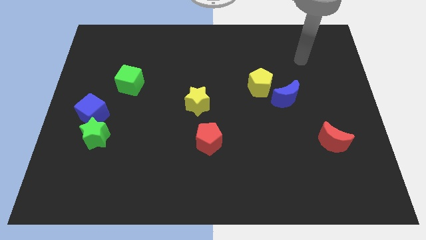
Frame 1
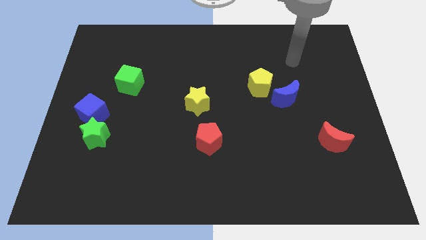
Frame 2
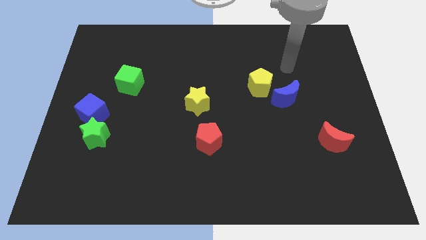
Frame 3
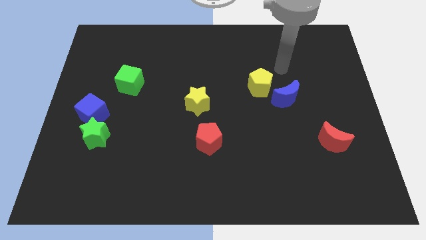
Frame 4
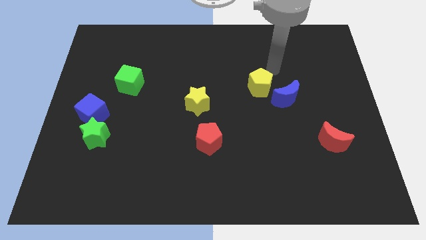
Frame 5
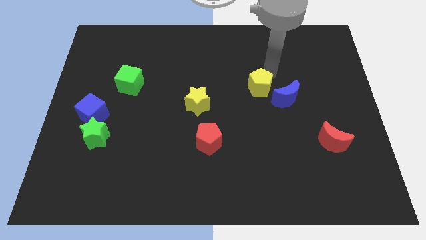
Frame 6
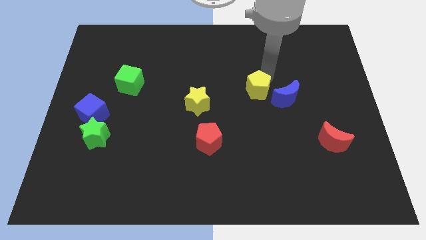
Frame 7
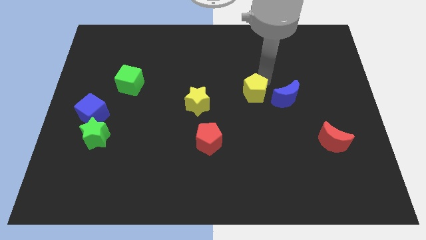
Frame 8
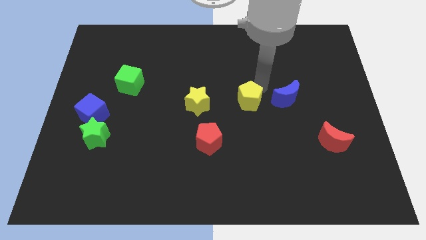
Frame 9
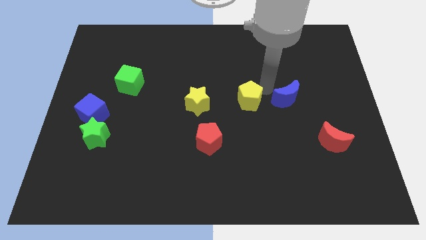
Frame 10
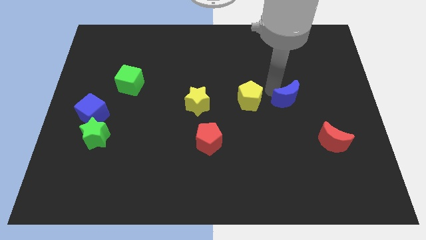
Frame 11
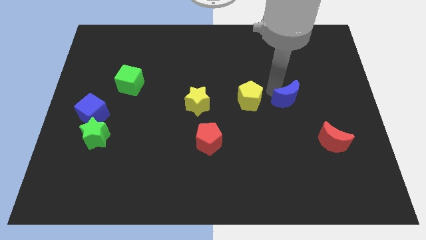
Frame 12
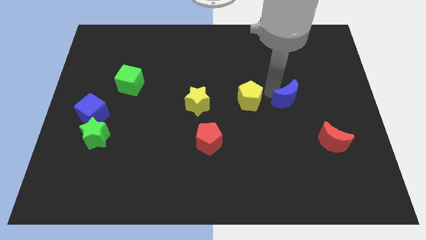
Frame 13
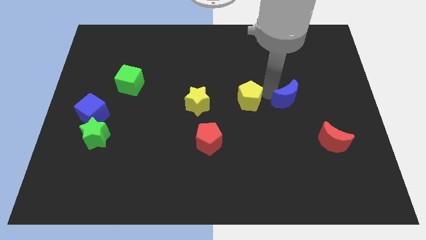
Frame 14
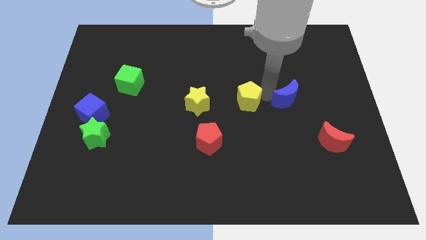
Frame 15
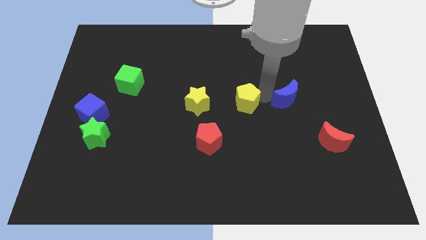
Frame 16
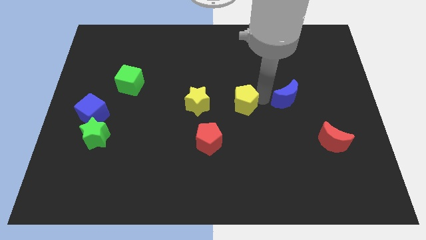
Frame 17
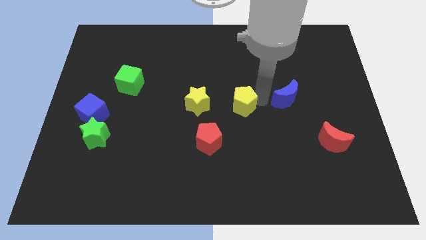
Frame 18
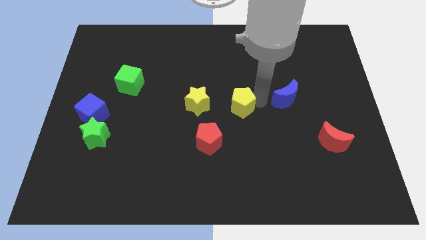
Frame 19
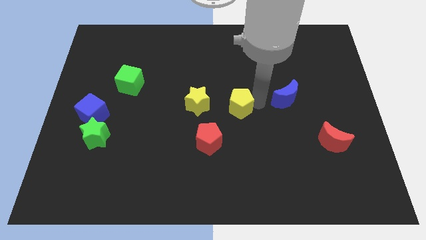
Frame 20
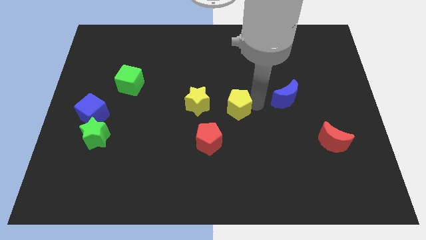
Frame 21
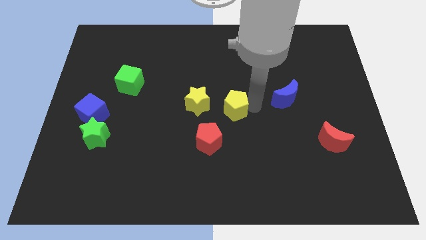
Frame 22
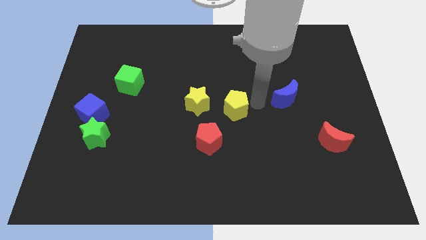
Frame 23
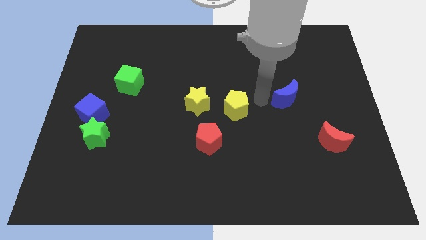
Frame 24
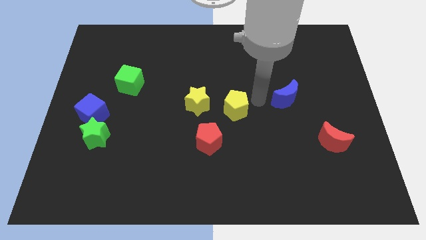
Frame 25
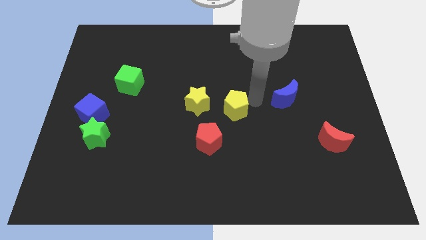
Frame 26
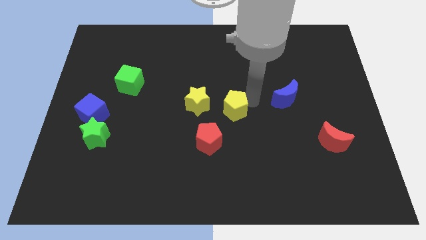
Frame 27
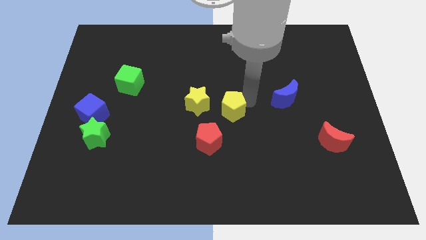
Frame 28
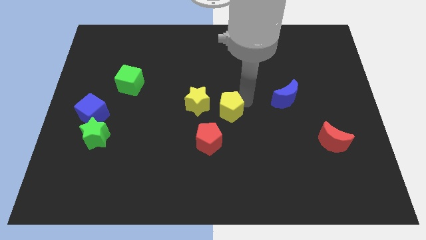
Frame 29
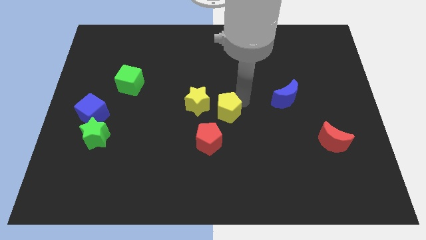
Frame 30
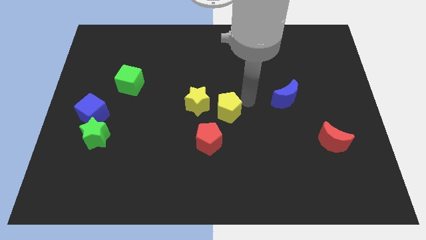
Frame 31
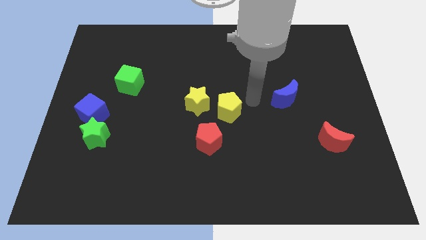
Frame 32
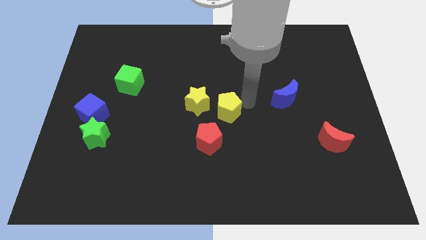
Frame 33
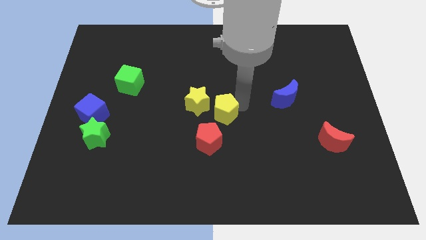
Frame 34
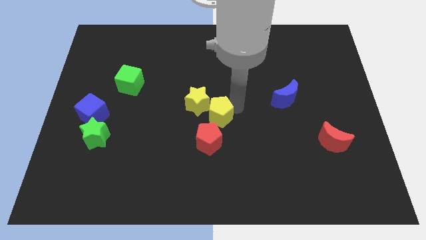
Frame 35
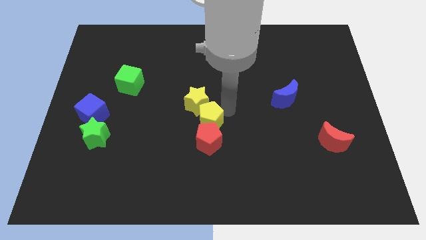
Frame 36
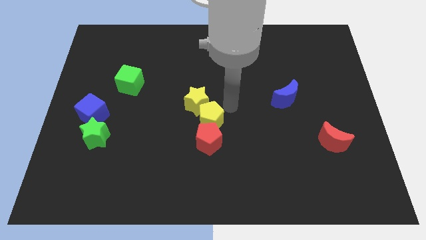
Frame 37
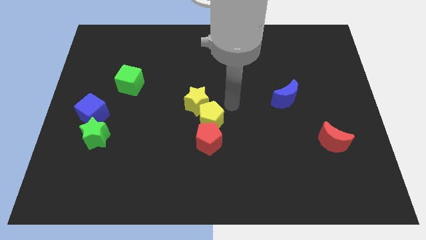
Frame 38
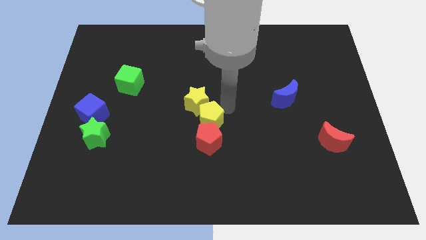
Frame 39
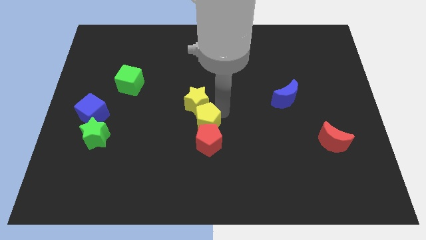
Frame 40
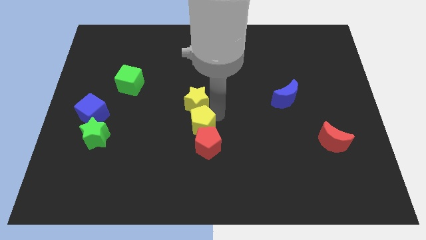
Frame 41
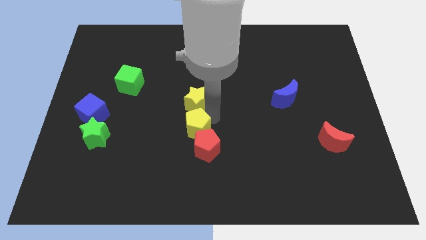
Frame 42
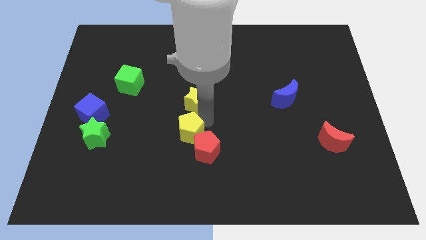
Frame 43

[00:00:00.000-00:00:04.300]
move the yellow pentagon diagonally down and left

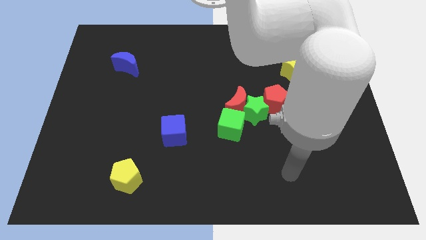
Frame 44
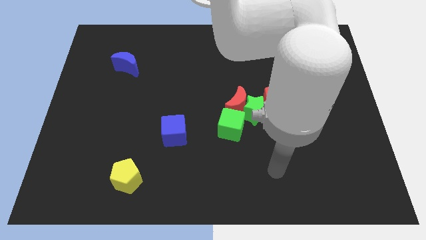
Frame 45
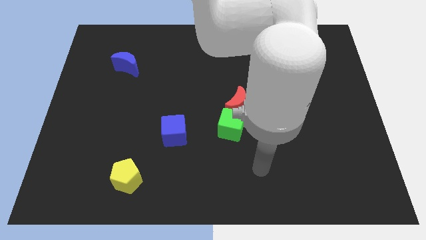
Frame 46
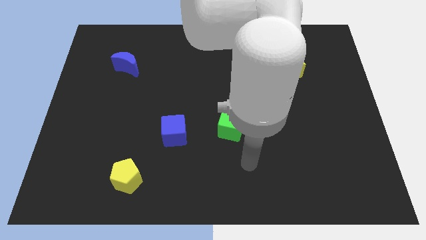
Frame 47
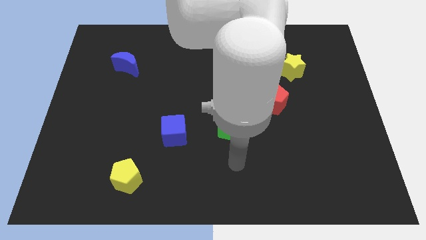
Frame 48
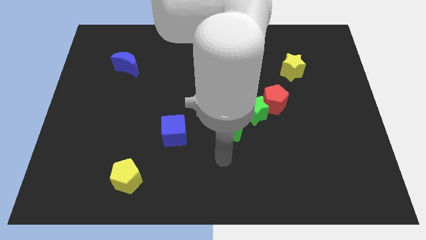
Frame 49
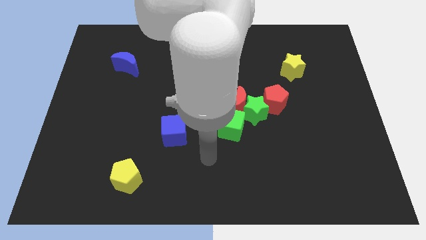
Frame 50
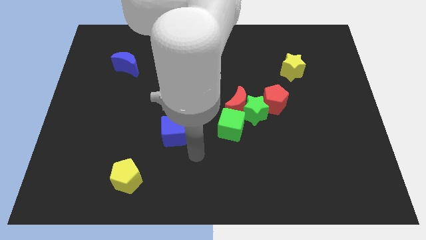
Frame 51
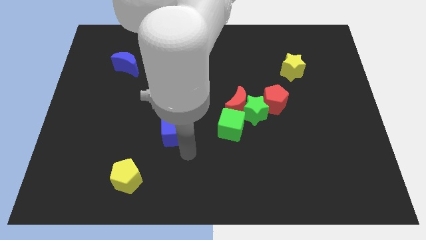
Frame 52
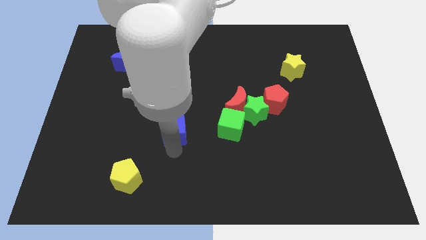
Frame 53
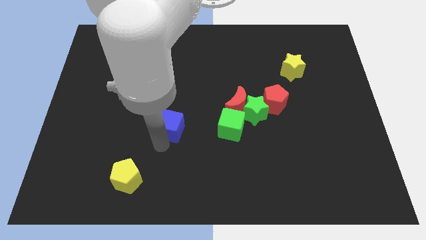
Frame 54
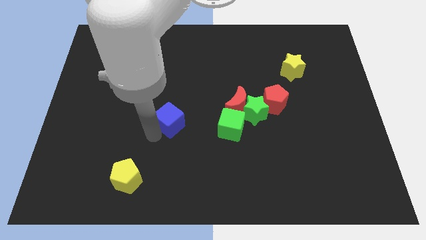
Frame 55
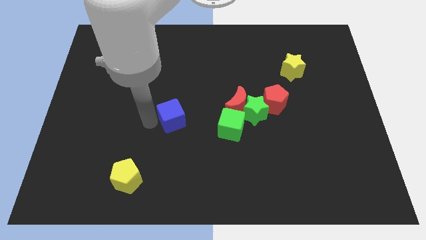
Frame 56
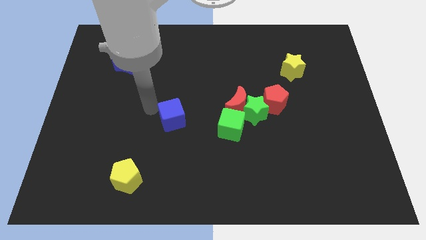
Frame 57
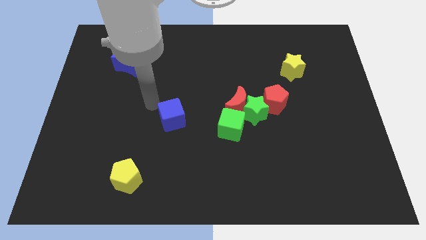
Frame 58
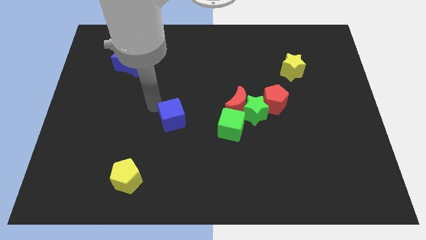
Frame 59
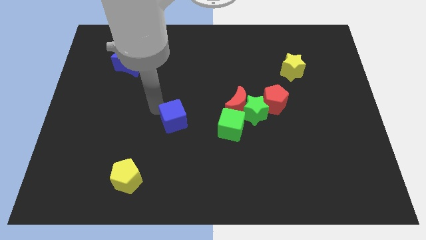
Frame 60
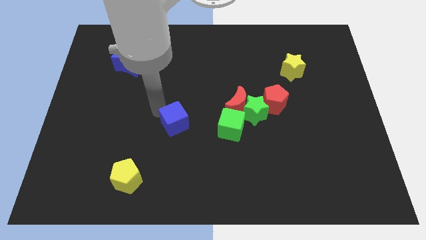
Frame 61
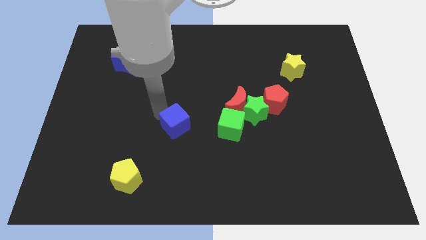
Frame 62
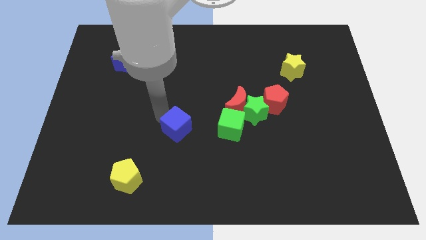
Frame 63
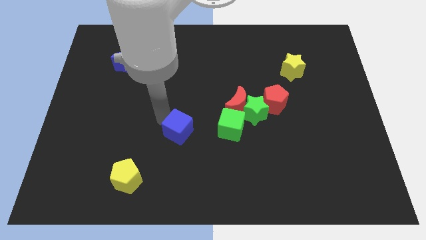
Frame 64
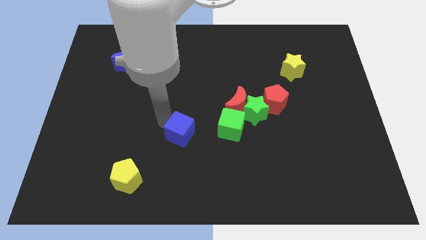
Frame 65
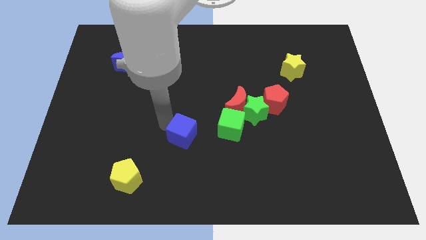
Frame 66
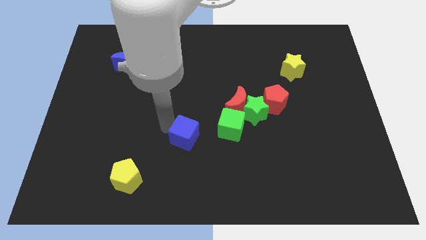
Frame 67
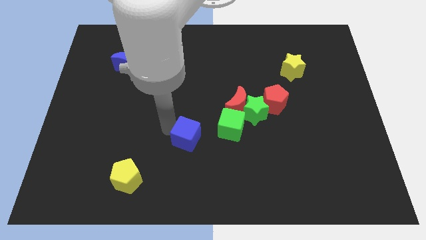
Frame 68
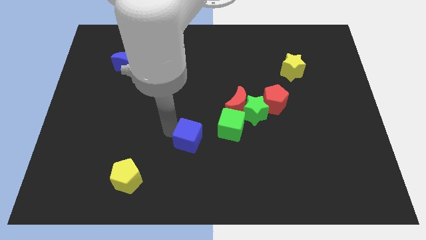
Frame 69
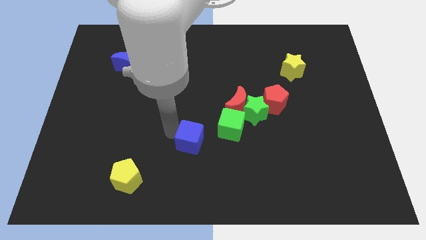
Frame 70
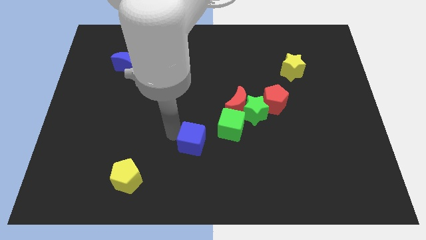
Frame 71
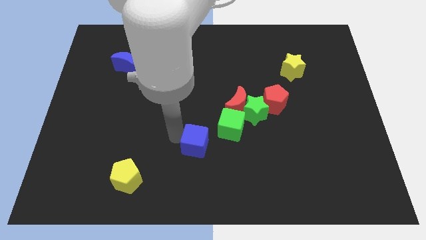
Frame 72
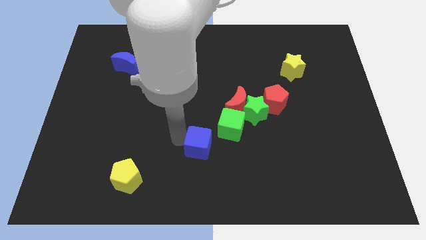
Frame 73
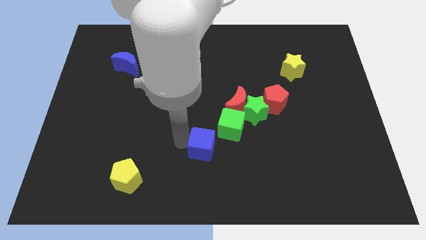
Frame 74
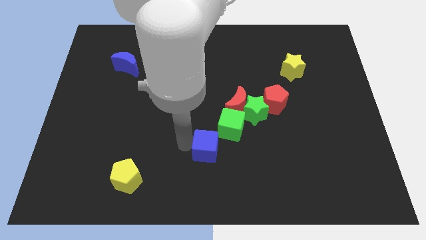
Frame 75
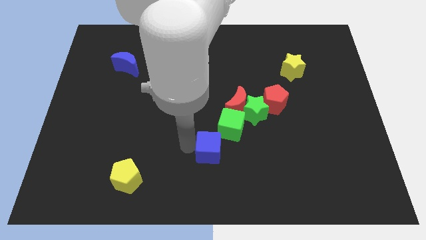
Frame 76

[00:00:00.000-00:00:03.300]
push the blue cube right a little
